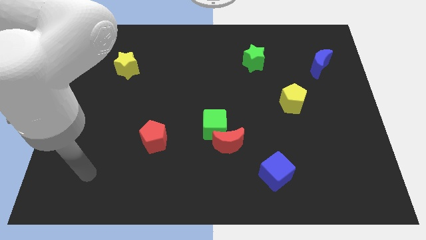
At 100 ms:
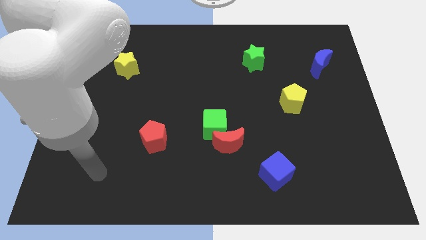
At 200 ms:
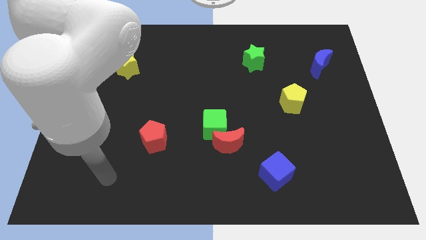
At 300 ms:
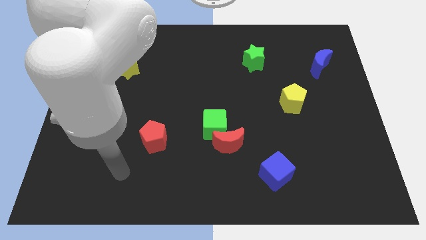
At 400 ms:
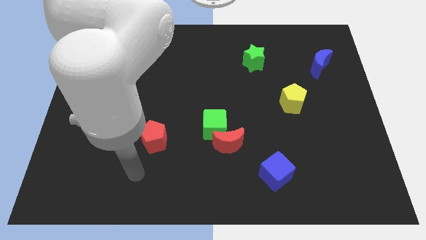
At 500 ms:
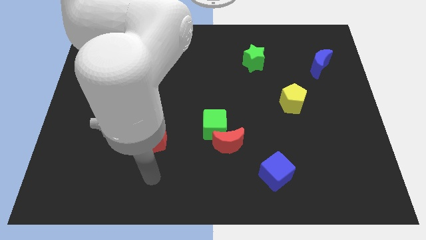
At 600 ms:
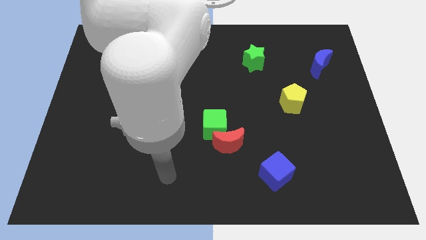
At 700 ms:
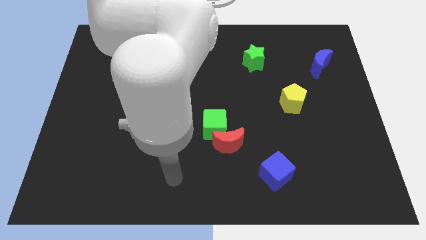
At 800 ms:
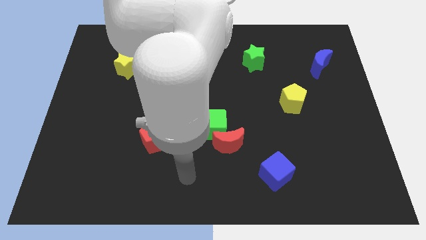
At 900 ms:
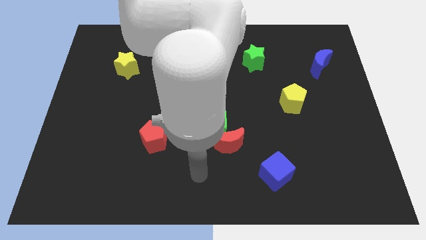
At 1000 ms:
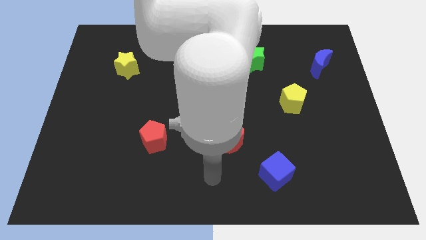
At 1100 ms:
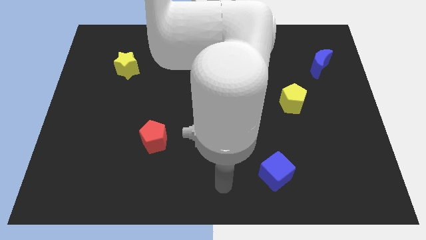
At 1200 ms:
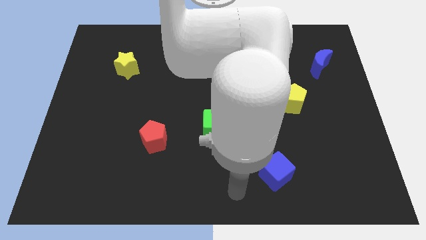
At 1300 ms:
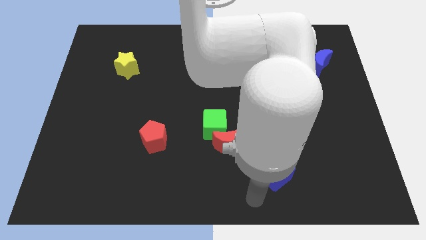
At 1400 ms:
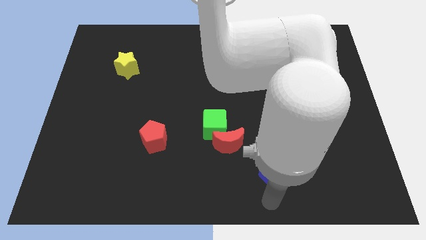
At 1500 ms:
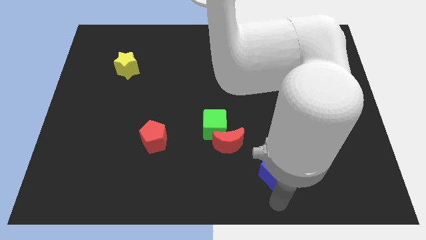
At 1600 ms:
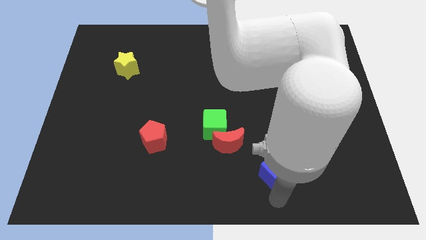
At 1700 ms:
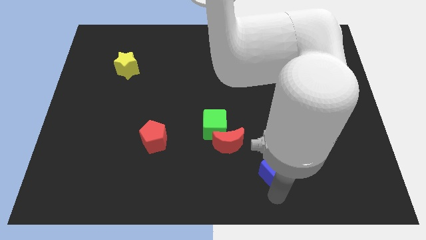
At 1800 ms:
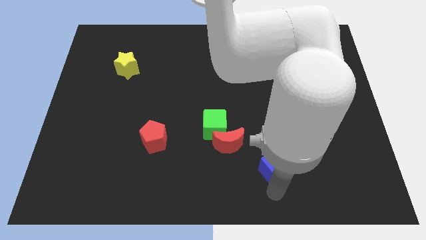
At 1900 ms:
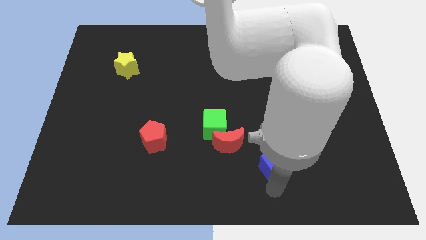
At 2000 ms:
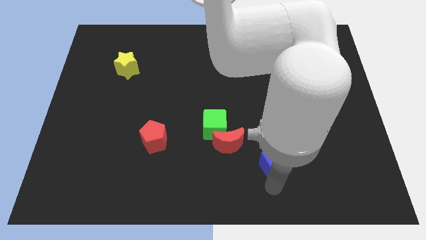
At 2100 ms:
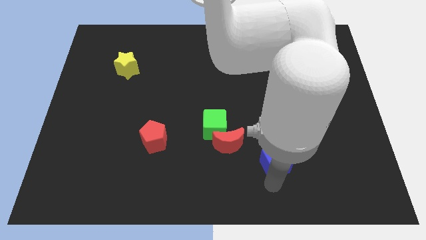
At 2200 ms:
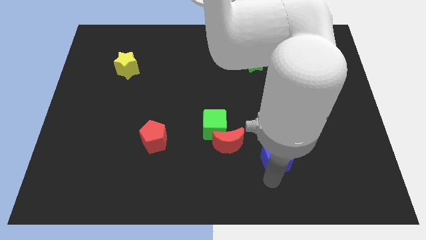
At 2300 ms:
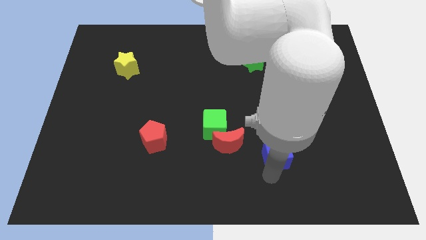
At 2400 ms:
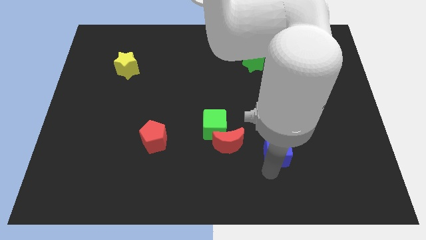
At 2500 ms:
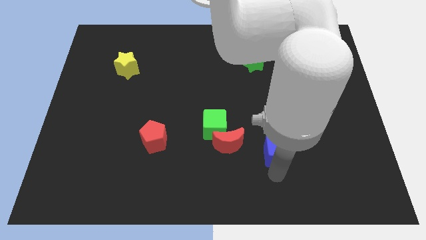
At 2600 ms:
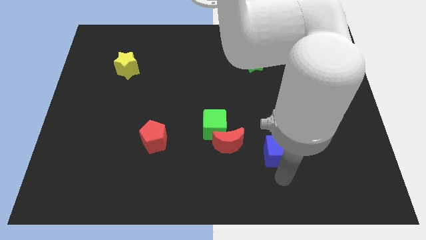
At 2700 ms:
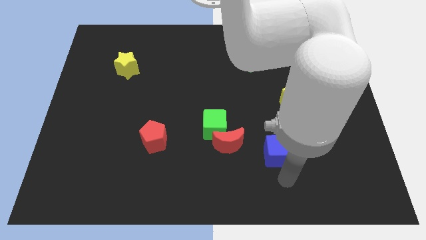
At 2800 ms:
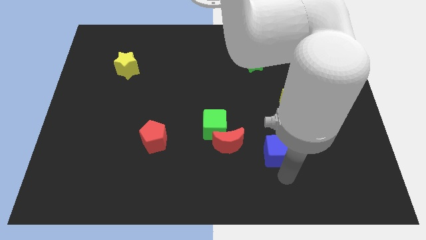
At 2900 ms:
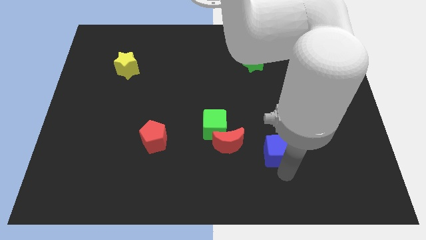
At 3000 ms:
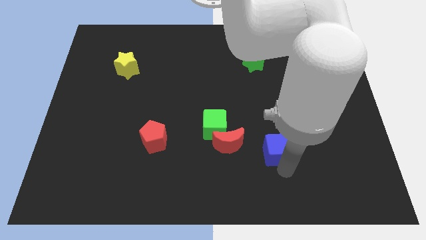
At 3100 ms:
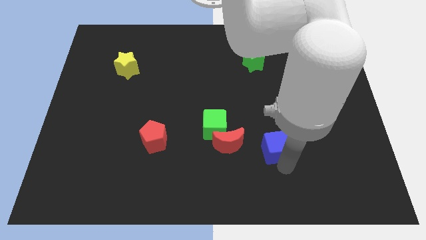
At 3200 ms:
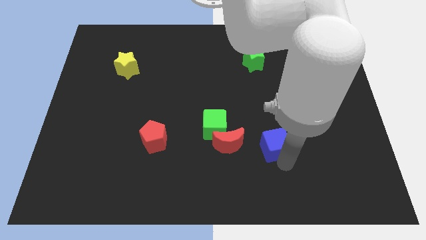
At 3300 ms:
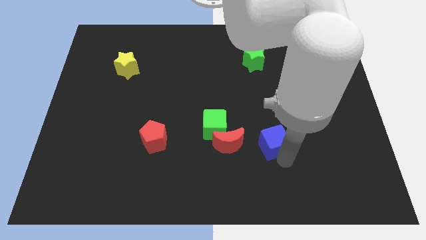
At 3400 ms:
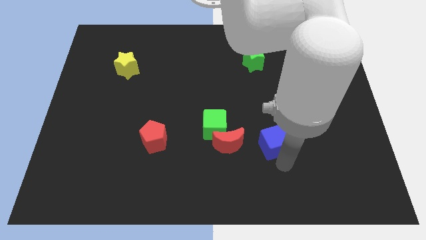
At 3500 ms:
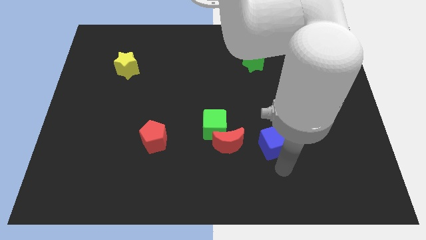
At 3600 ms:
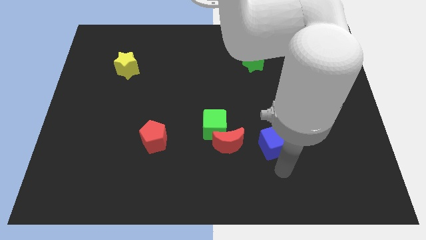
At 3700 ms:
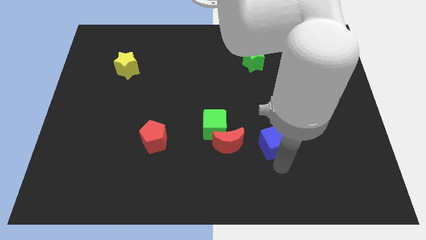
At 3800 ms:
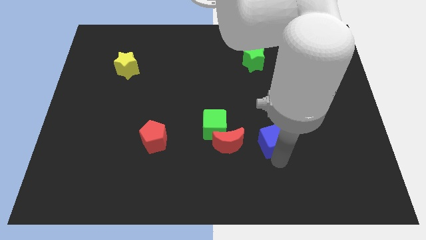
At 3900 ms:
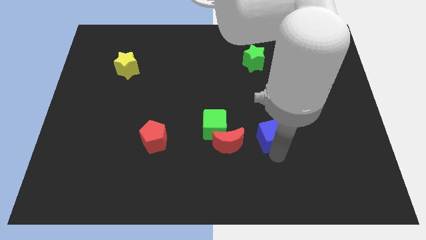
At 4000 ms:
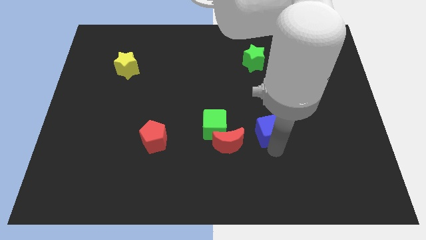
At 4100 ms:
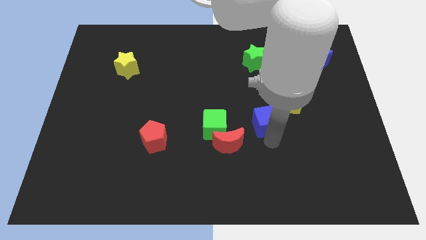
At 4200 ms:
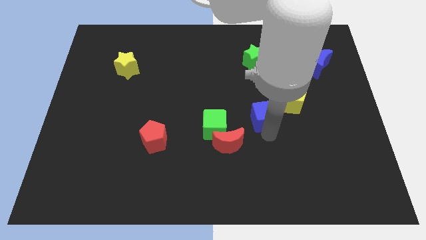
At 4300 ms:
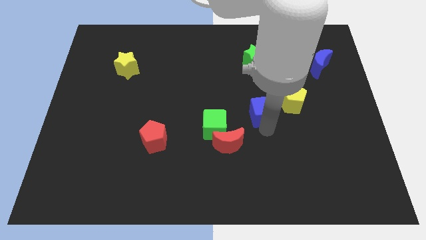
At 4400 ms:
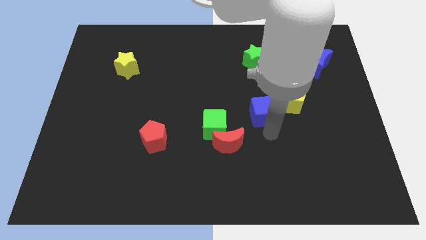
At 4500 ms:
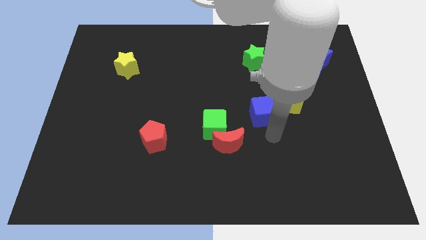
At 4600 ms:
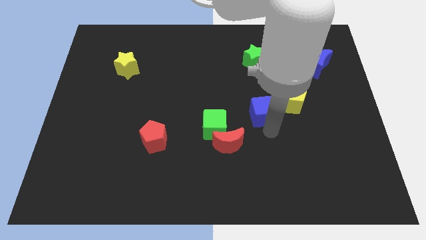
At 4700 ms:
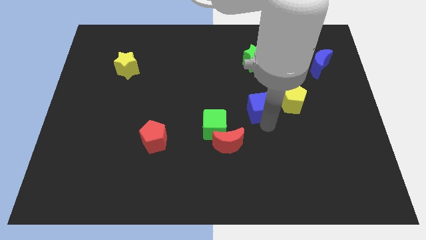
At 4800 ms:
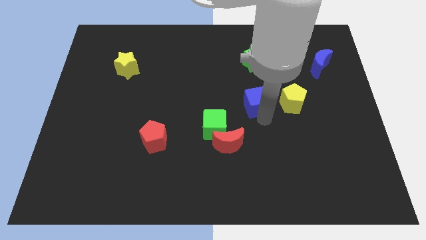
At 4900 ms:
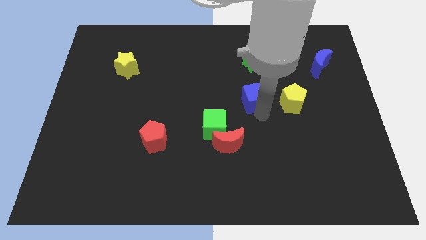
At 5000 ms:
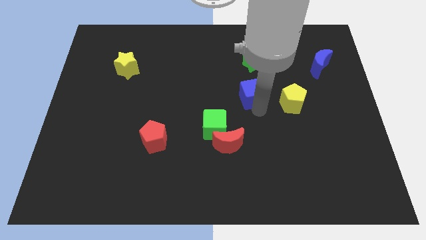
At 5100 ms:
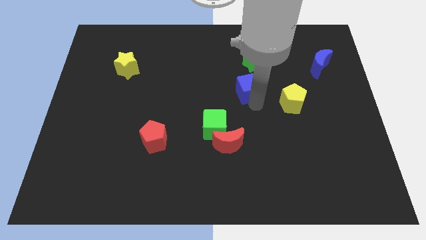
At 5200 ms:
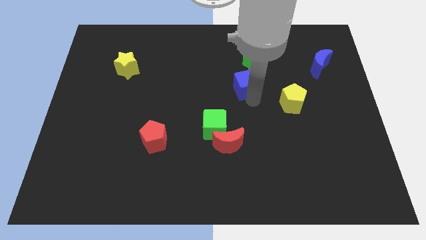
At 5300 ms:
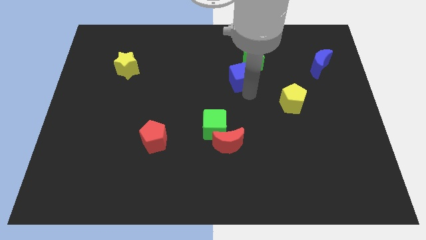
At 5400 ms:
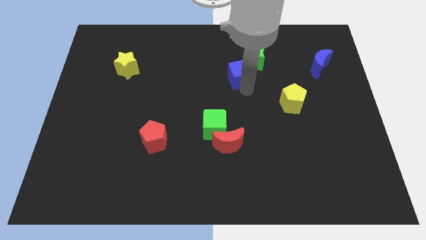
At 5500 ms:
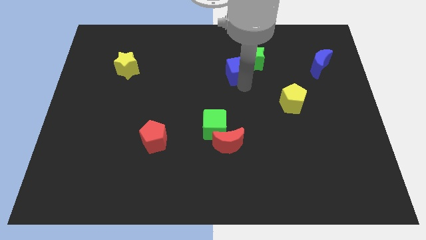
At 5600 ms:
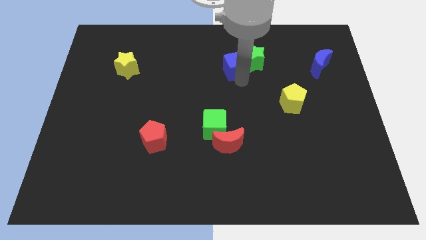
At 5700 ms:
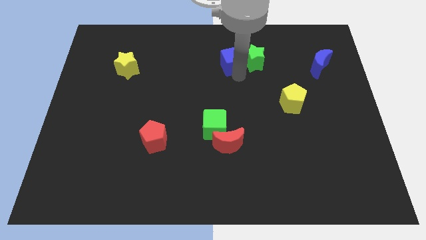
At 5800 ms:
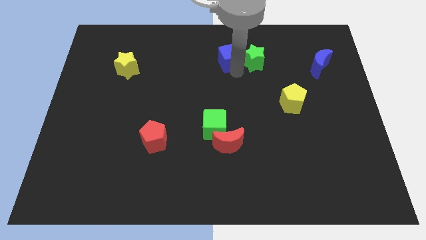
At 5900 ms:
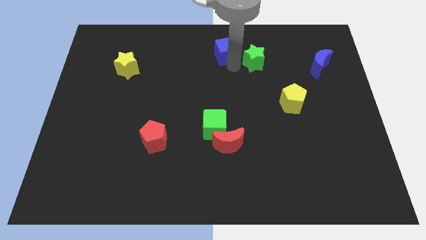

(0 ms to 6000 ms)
push the blue cube to the top

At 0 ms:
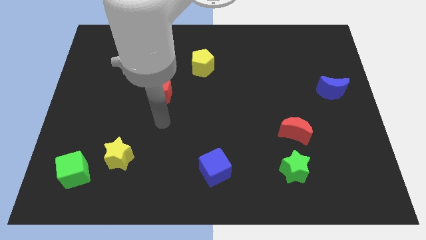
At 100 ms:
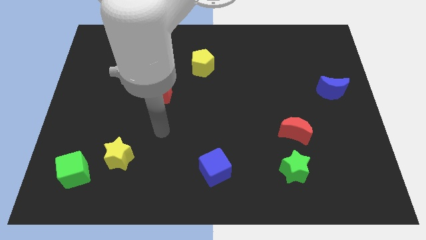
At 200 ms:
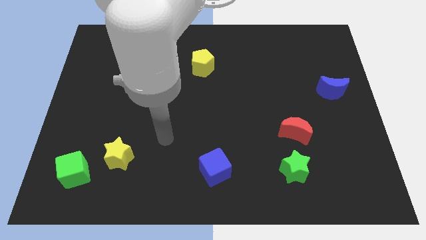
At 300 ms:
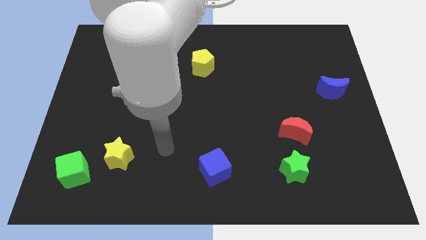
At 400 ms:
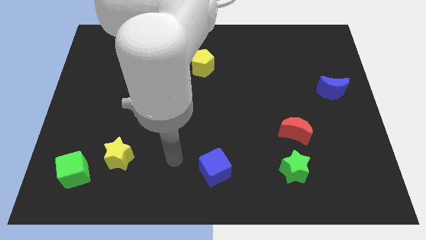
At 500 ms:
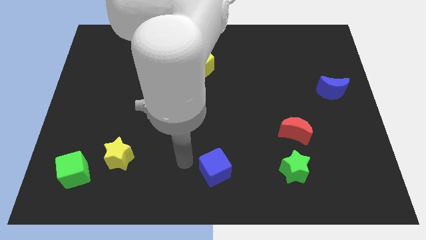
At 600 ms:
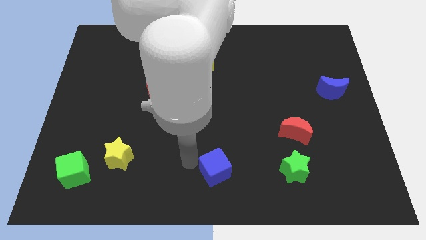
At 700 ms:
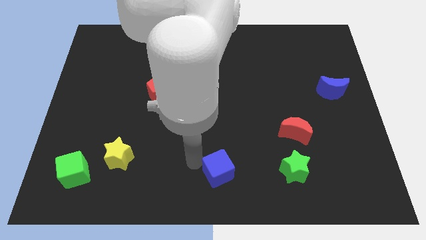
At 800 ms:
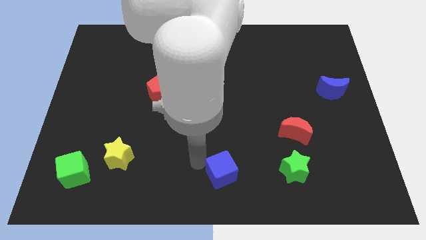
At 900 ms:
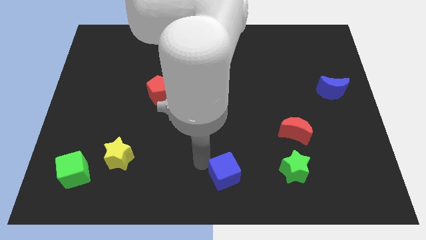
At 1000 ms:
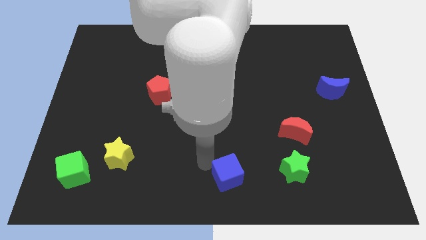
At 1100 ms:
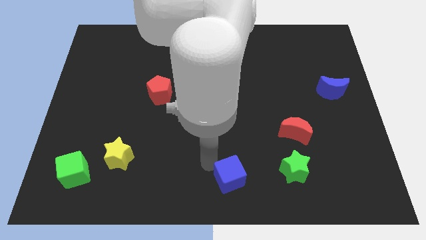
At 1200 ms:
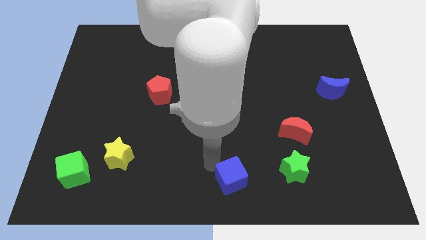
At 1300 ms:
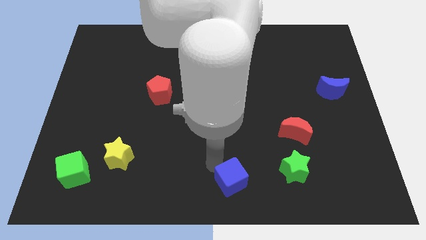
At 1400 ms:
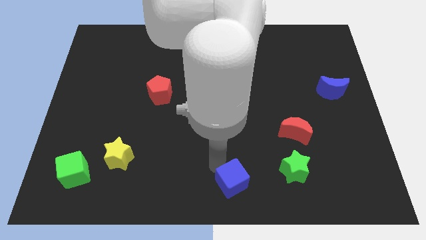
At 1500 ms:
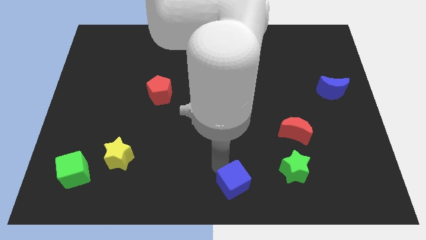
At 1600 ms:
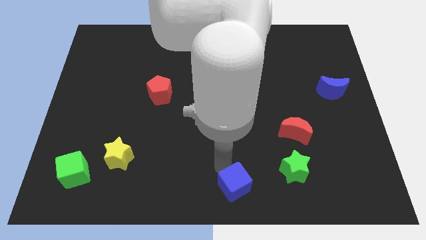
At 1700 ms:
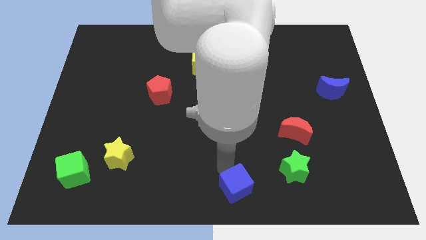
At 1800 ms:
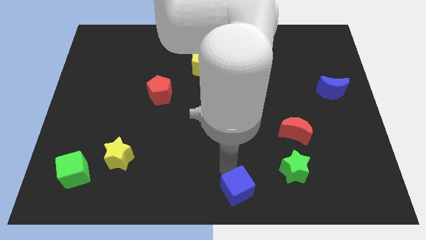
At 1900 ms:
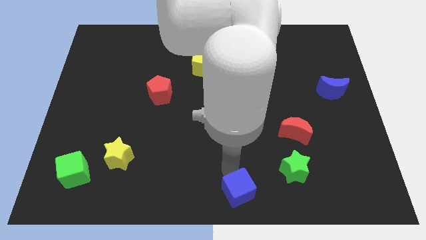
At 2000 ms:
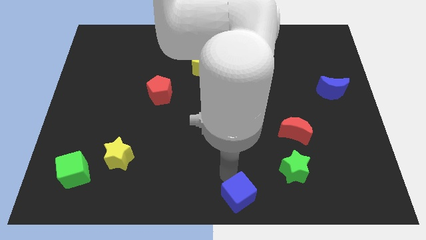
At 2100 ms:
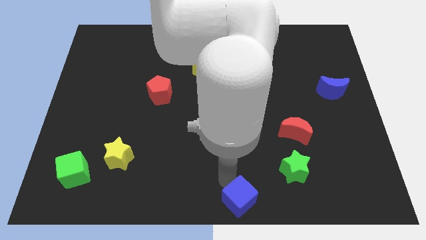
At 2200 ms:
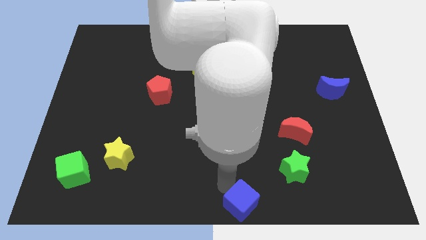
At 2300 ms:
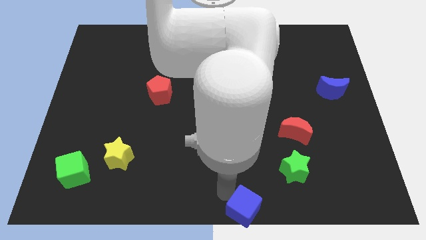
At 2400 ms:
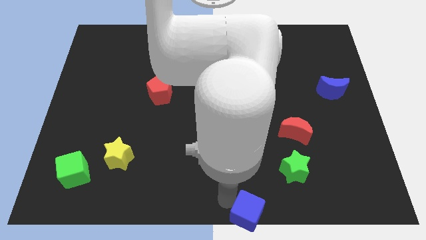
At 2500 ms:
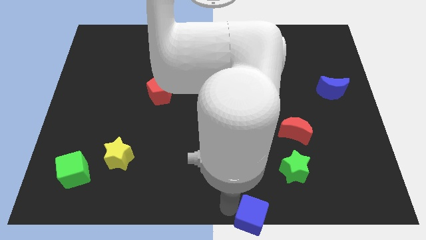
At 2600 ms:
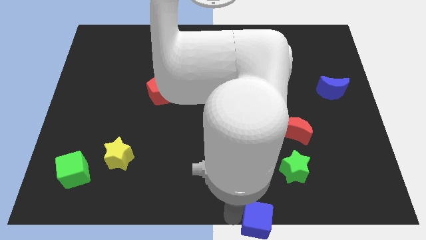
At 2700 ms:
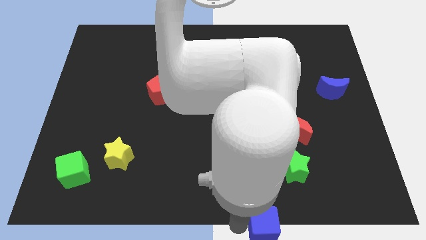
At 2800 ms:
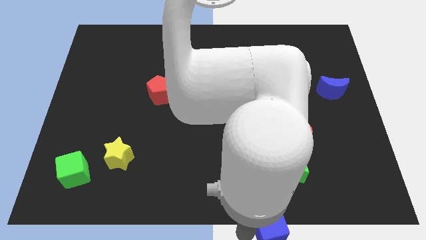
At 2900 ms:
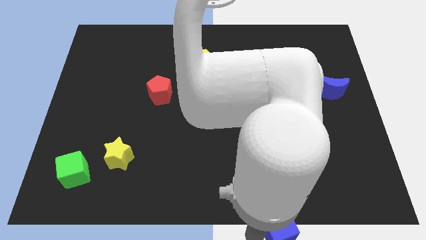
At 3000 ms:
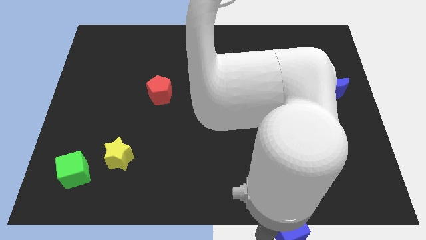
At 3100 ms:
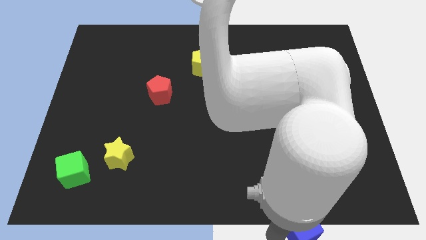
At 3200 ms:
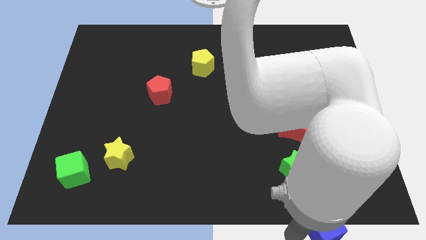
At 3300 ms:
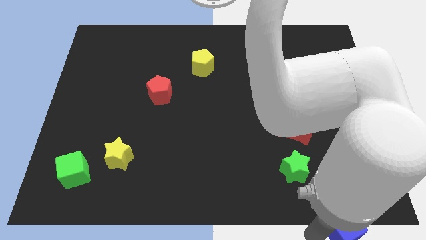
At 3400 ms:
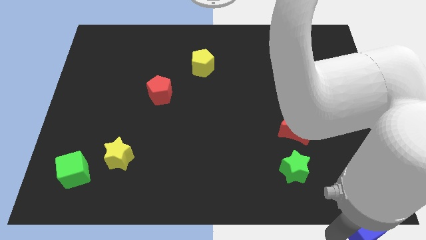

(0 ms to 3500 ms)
move the blue cube to the bottom right
